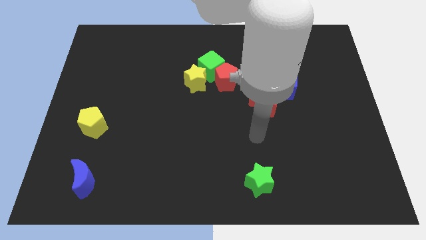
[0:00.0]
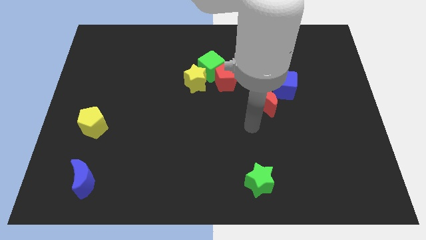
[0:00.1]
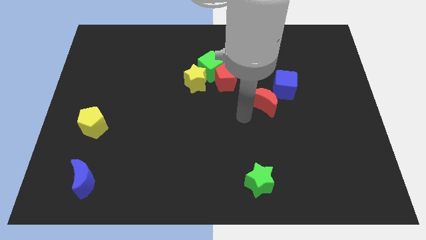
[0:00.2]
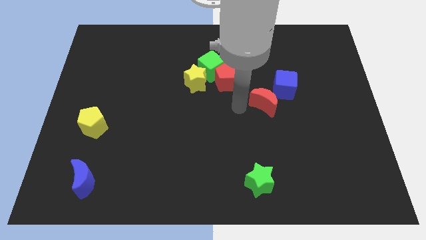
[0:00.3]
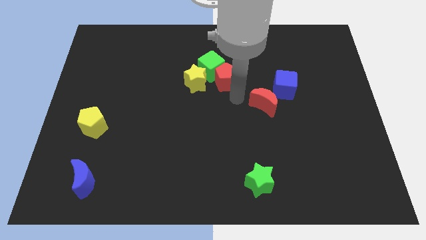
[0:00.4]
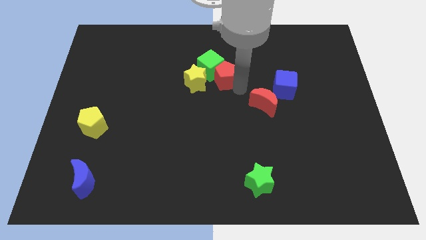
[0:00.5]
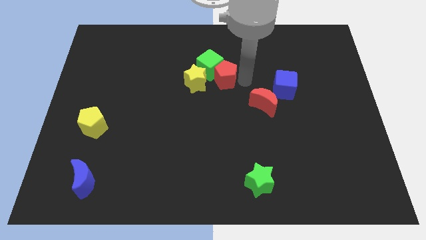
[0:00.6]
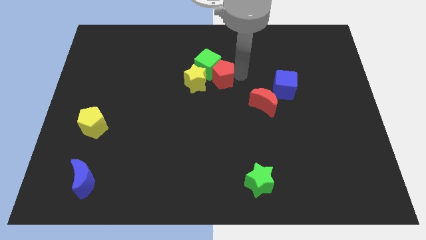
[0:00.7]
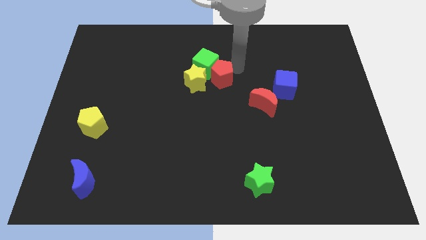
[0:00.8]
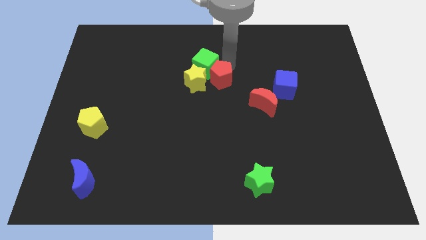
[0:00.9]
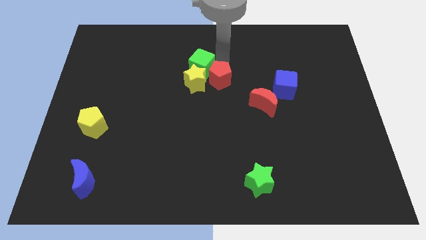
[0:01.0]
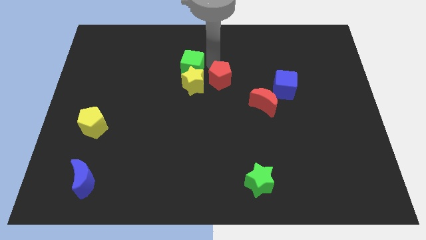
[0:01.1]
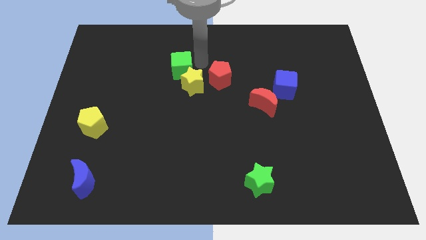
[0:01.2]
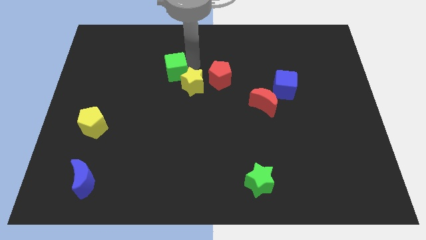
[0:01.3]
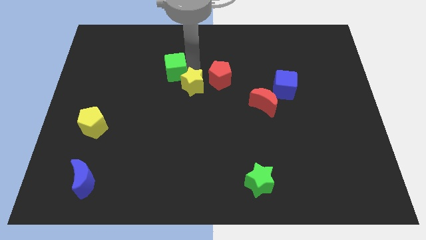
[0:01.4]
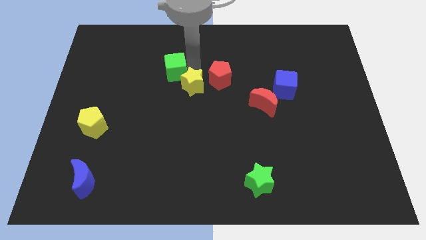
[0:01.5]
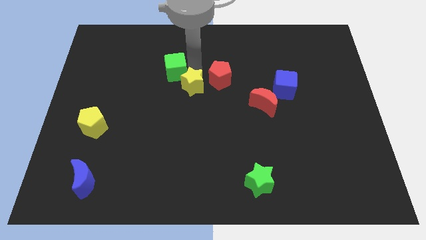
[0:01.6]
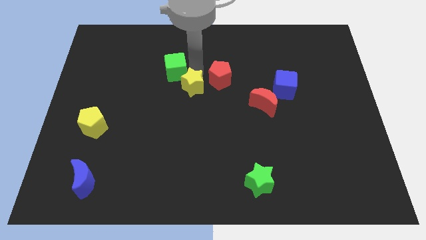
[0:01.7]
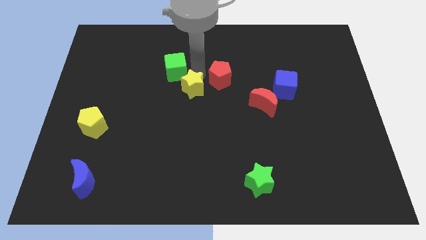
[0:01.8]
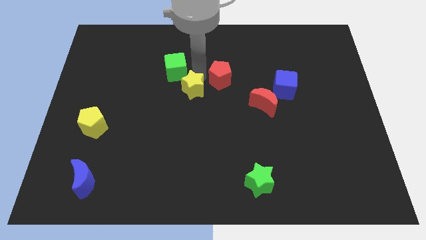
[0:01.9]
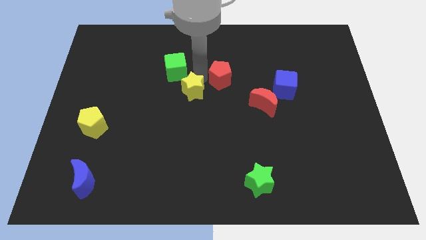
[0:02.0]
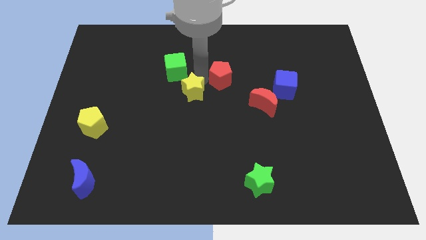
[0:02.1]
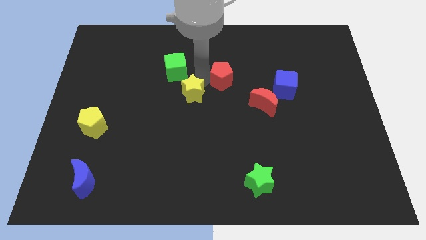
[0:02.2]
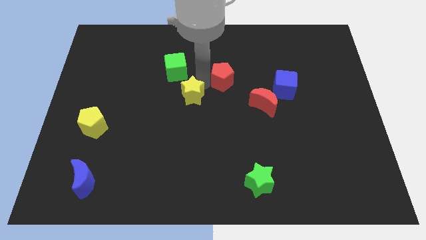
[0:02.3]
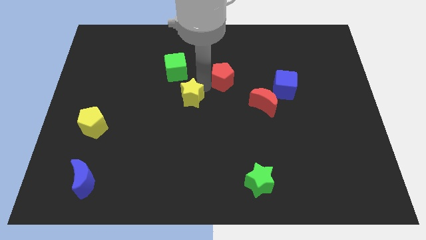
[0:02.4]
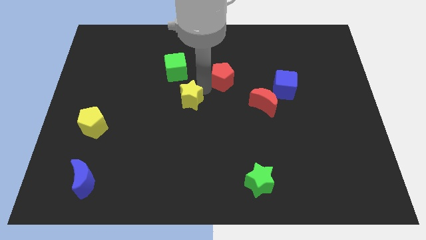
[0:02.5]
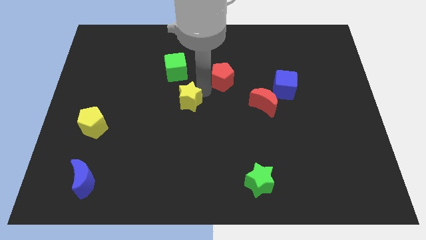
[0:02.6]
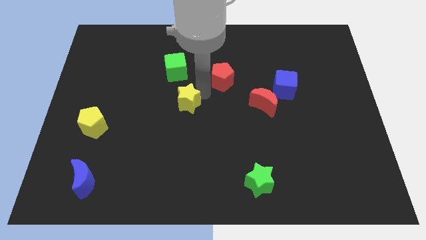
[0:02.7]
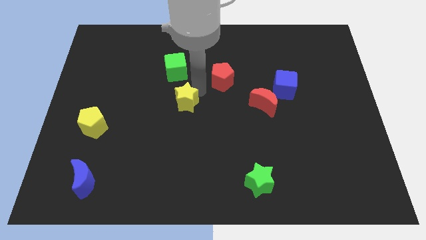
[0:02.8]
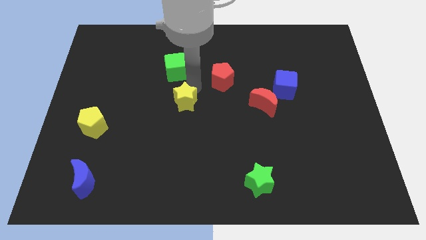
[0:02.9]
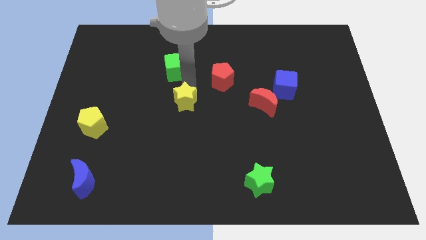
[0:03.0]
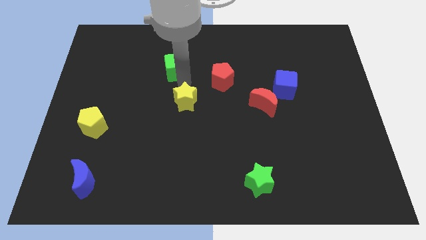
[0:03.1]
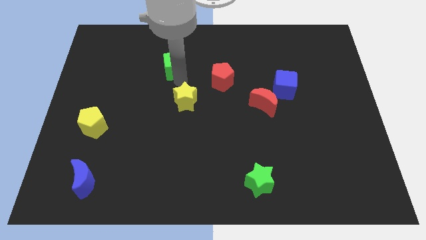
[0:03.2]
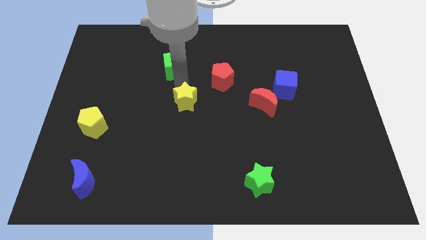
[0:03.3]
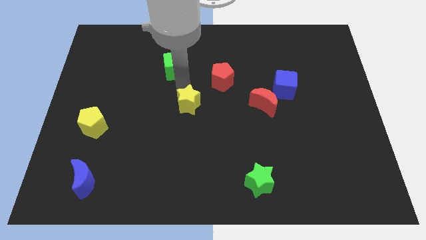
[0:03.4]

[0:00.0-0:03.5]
slide the yellow star somewhat down

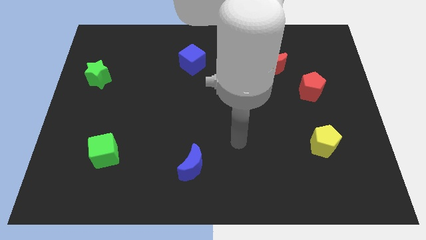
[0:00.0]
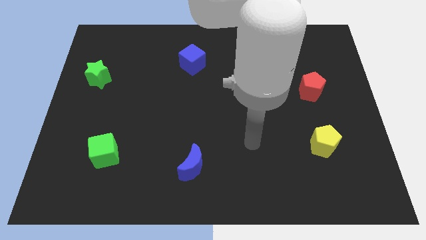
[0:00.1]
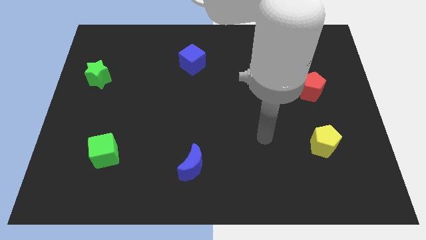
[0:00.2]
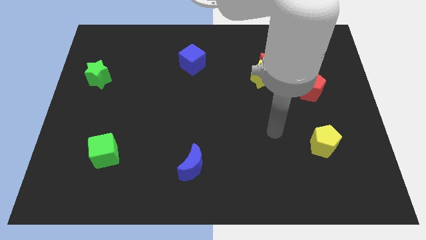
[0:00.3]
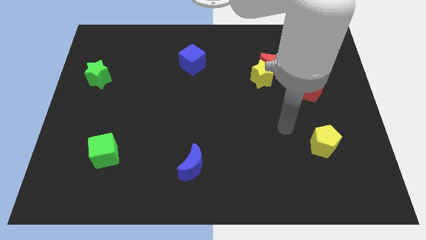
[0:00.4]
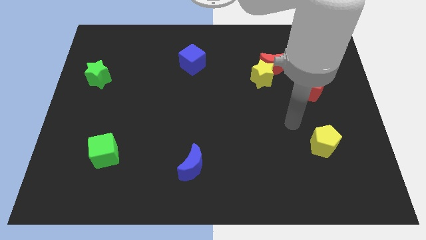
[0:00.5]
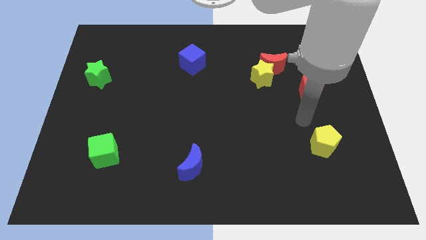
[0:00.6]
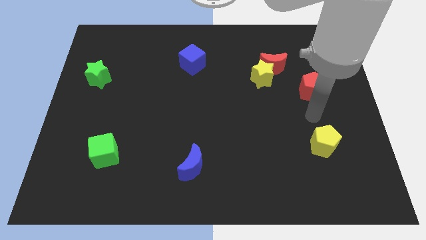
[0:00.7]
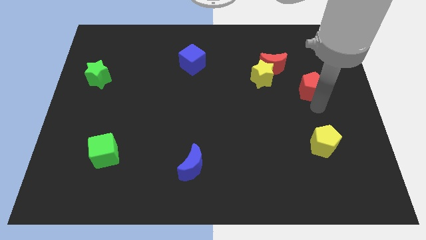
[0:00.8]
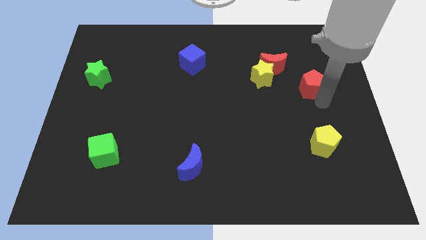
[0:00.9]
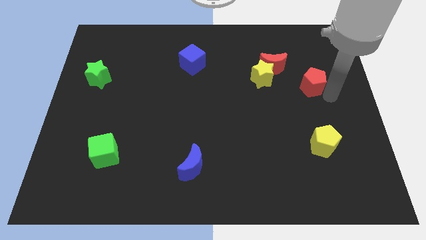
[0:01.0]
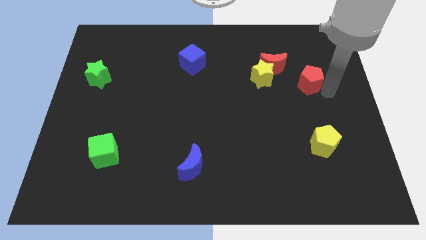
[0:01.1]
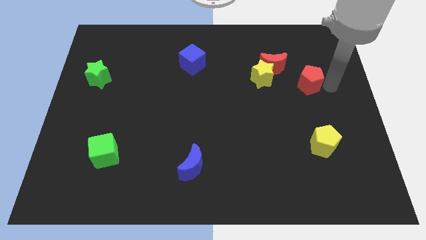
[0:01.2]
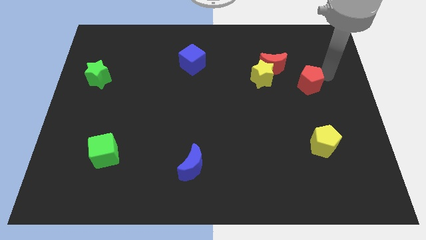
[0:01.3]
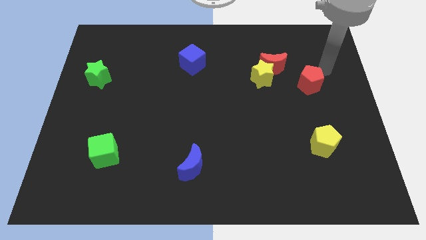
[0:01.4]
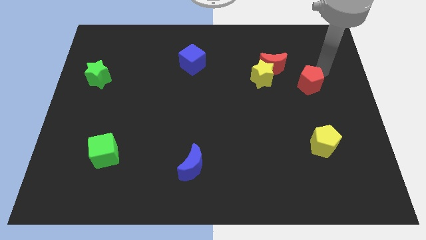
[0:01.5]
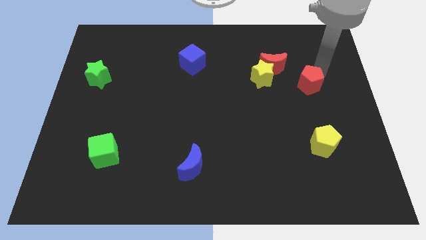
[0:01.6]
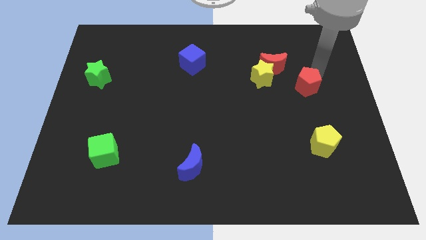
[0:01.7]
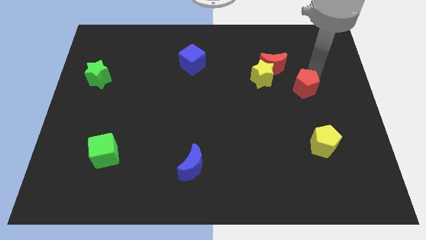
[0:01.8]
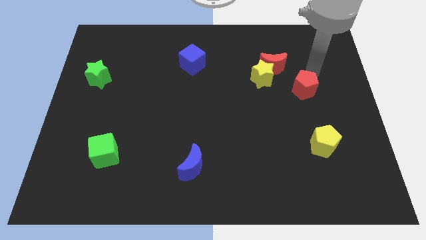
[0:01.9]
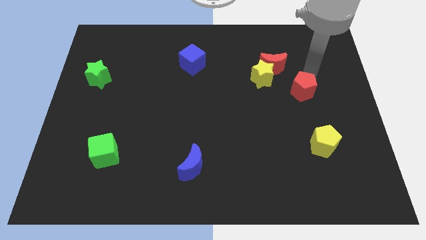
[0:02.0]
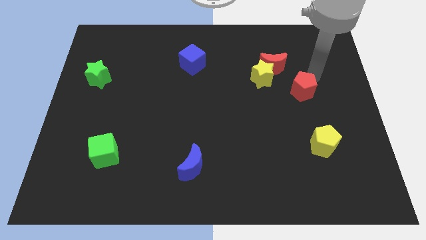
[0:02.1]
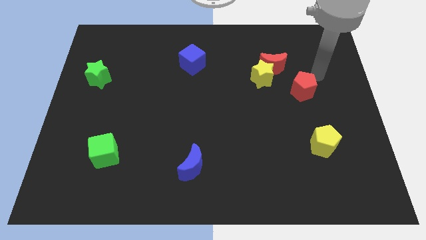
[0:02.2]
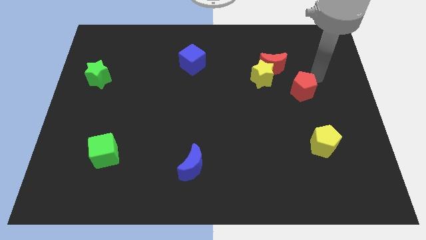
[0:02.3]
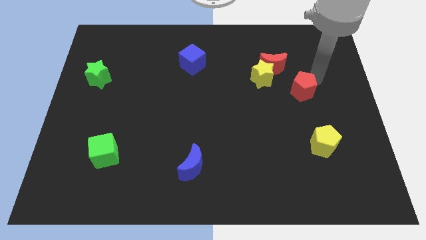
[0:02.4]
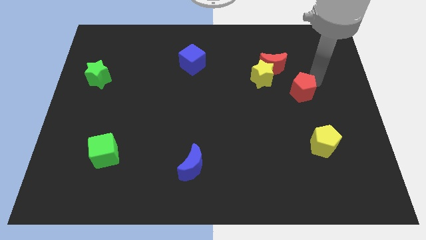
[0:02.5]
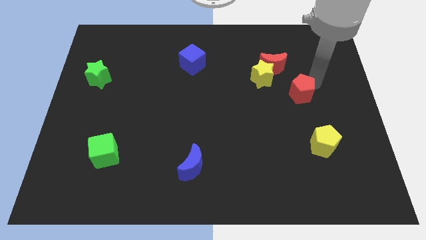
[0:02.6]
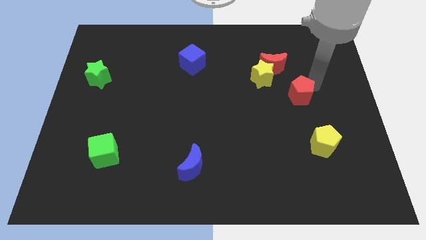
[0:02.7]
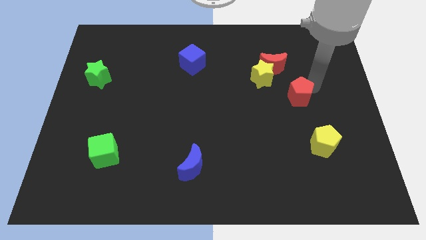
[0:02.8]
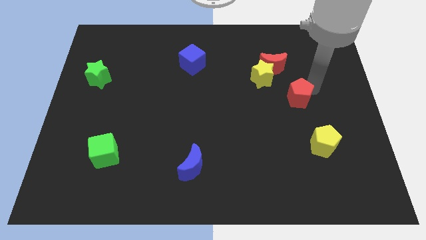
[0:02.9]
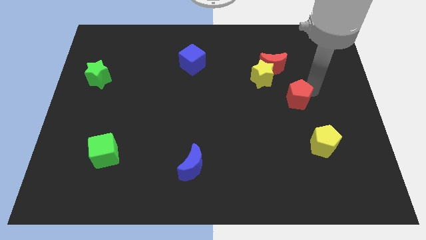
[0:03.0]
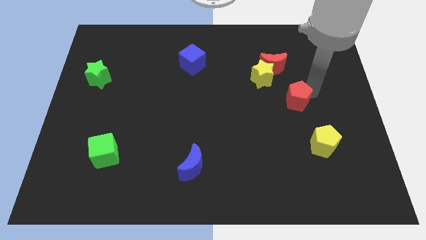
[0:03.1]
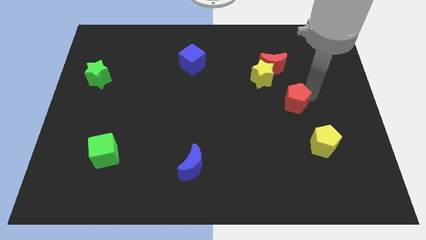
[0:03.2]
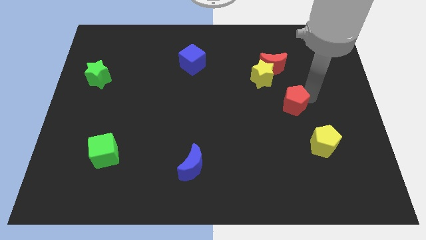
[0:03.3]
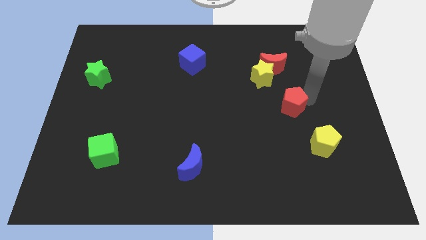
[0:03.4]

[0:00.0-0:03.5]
move the red pentagon somewhat down and left diagonally

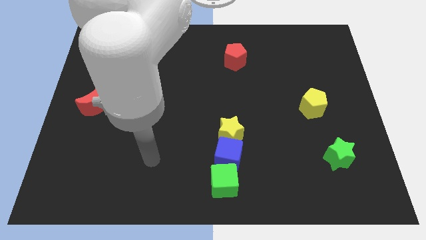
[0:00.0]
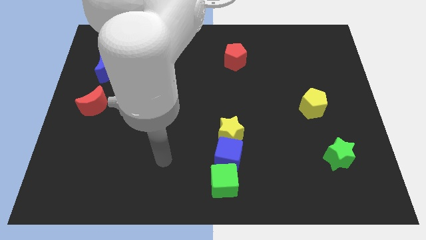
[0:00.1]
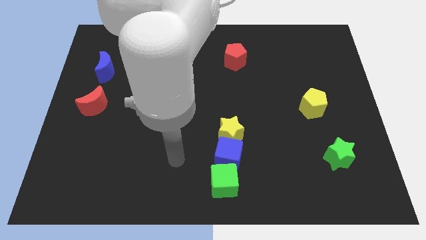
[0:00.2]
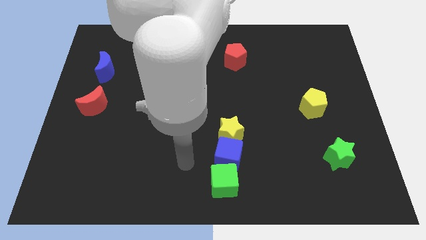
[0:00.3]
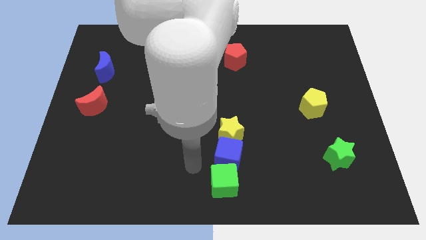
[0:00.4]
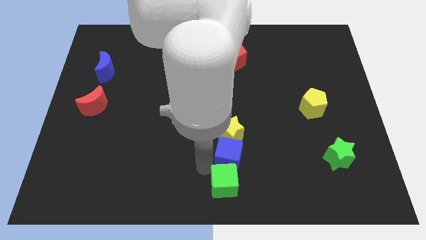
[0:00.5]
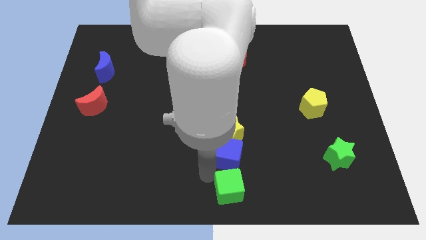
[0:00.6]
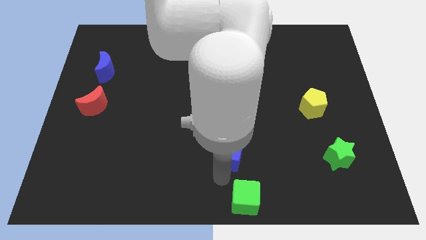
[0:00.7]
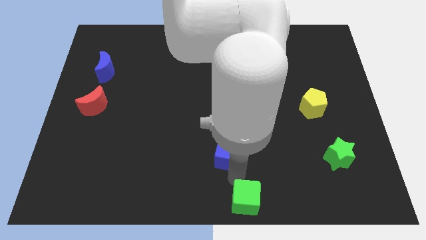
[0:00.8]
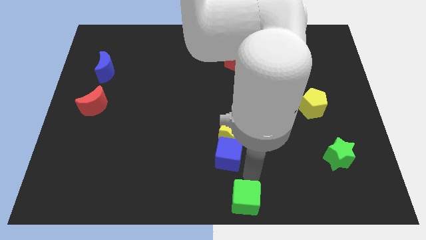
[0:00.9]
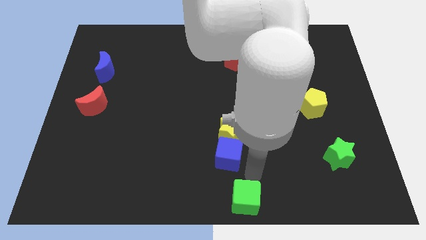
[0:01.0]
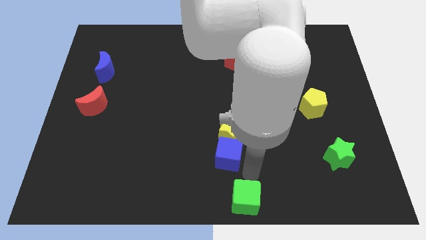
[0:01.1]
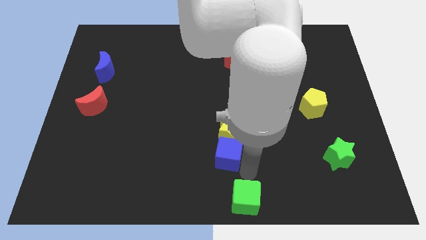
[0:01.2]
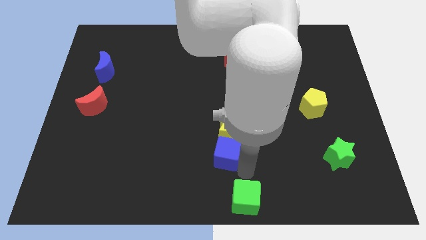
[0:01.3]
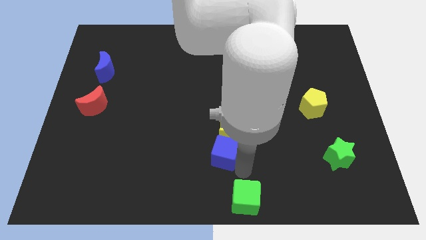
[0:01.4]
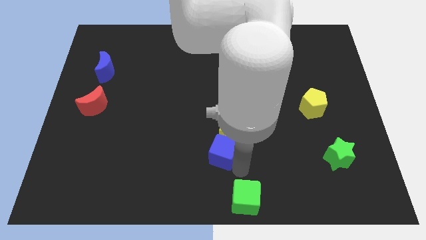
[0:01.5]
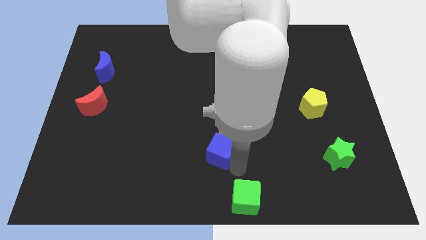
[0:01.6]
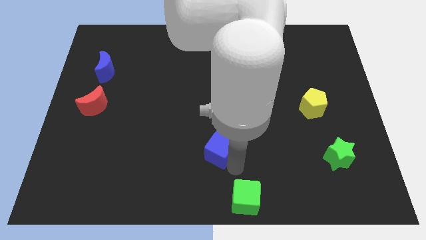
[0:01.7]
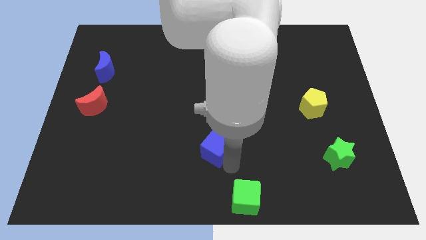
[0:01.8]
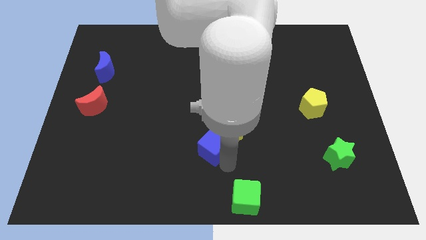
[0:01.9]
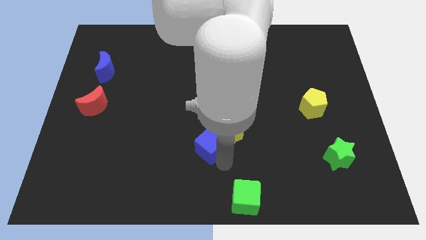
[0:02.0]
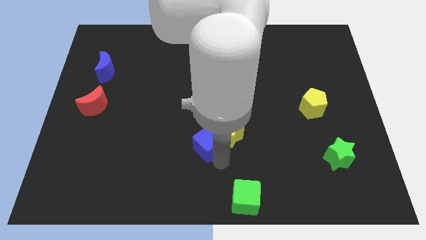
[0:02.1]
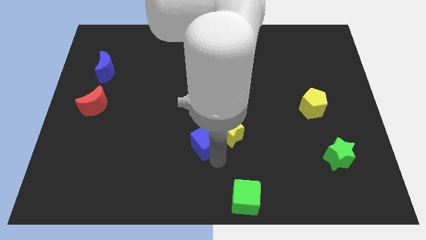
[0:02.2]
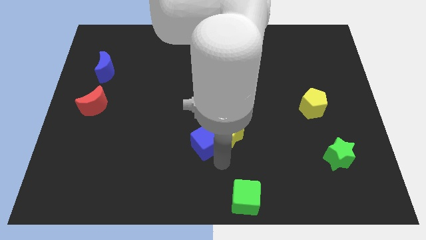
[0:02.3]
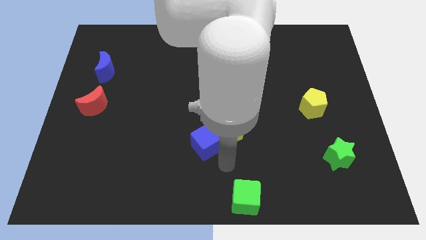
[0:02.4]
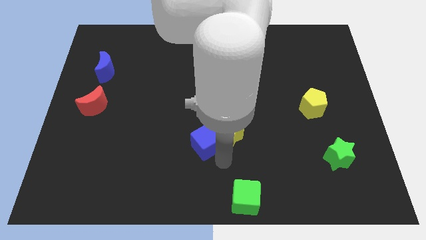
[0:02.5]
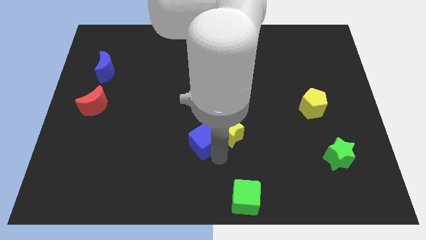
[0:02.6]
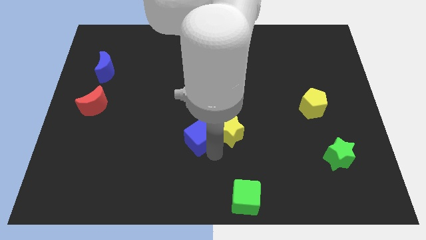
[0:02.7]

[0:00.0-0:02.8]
slightly slide the blue cube upwards and to the left
